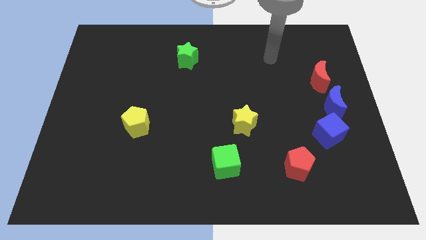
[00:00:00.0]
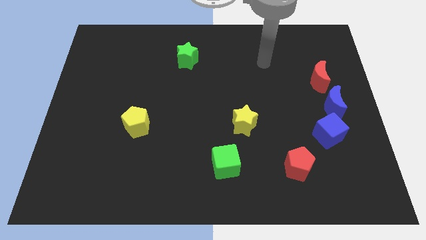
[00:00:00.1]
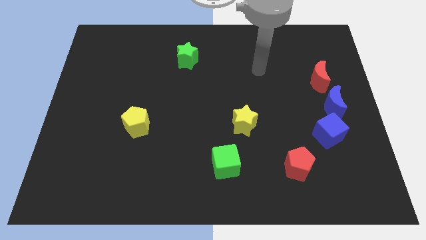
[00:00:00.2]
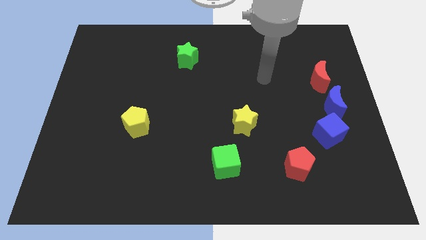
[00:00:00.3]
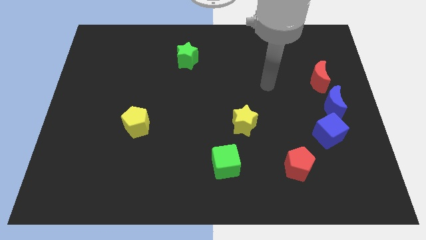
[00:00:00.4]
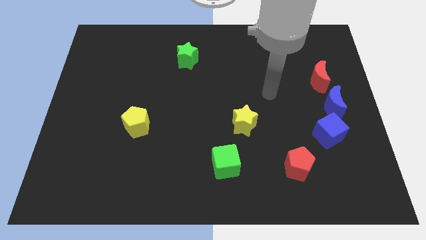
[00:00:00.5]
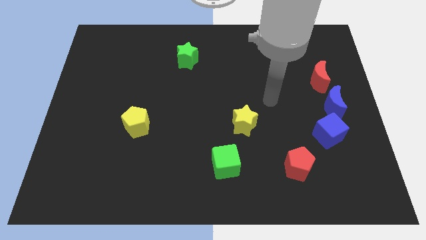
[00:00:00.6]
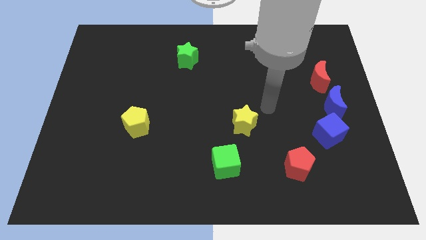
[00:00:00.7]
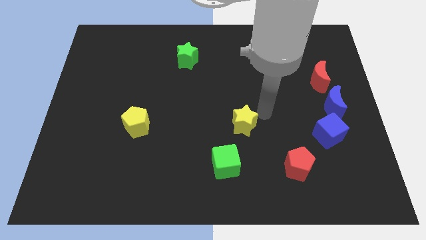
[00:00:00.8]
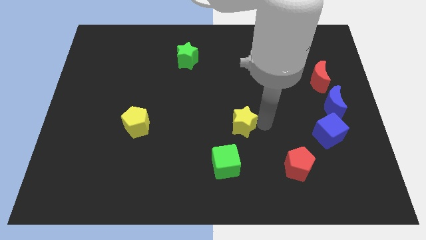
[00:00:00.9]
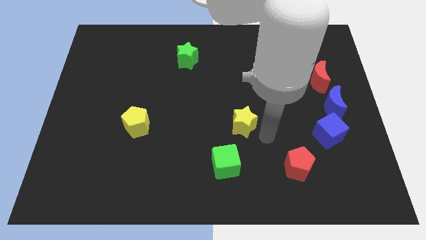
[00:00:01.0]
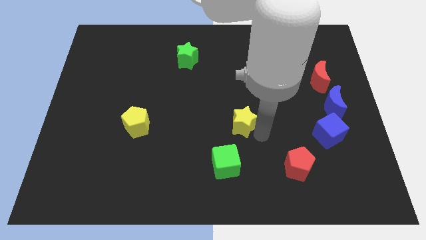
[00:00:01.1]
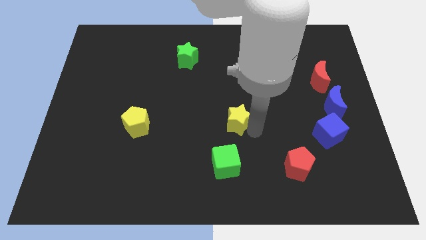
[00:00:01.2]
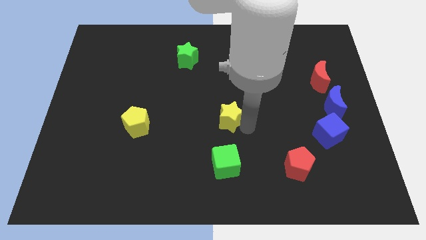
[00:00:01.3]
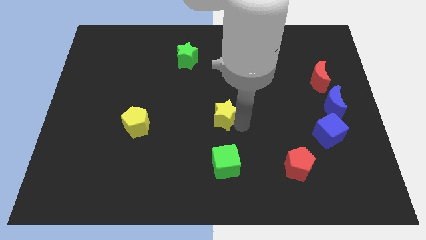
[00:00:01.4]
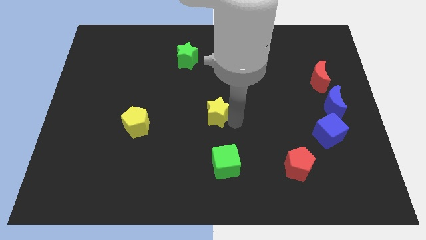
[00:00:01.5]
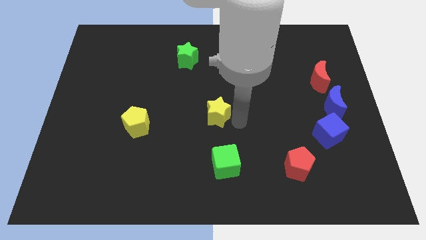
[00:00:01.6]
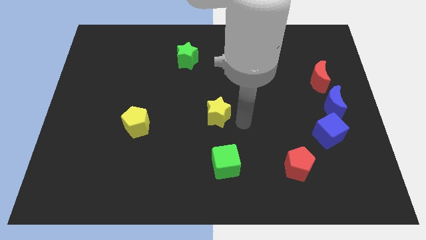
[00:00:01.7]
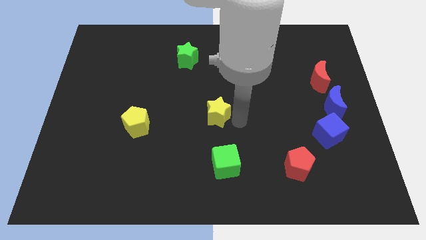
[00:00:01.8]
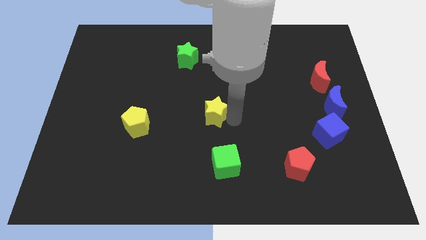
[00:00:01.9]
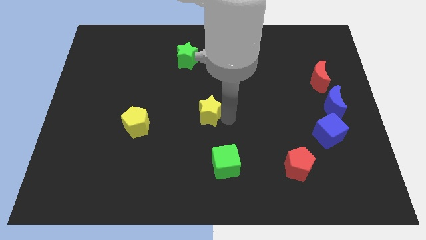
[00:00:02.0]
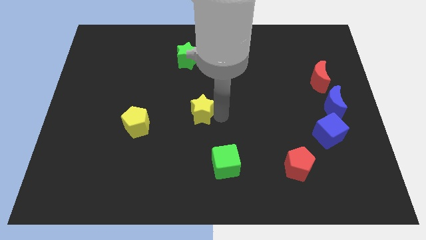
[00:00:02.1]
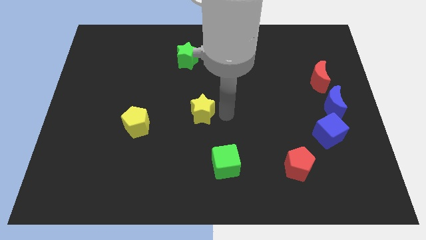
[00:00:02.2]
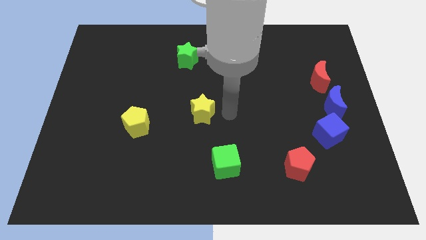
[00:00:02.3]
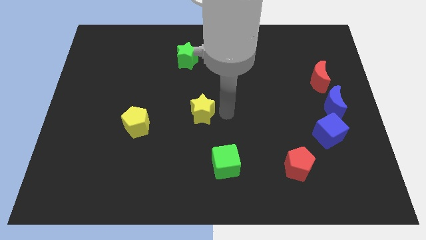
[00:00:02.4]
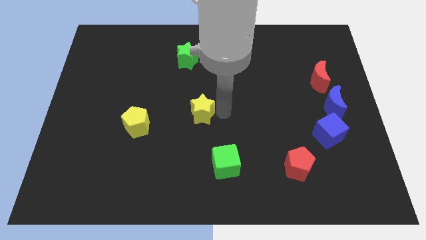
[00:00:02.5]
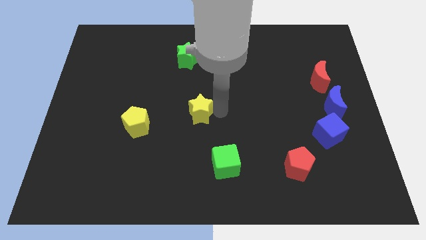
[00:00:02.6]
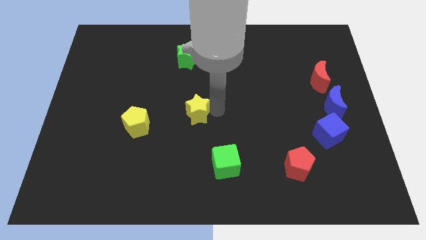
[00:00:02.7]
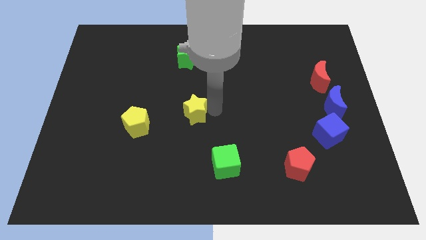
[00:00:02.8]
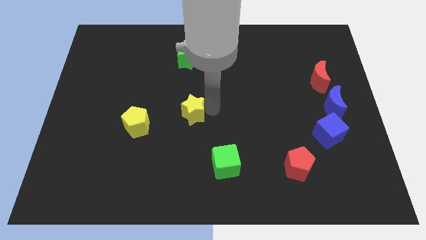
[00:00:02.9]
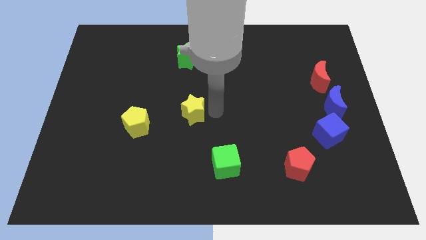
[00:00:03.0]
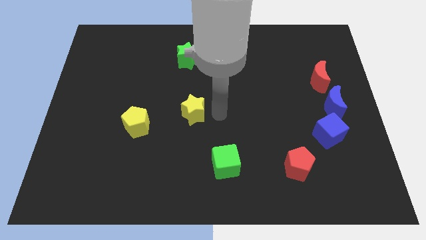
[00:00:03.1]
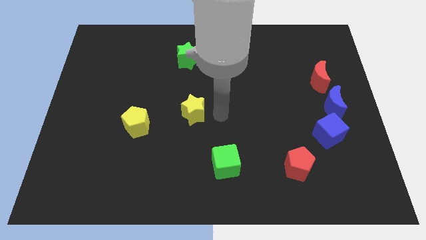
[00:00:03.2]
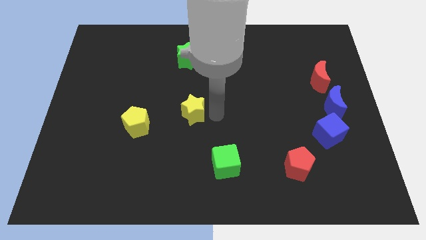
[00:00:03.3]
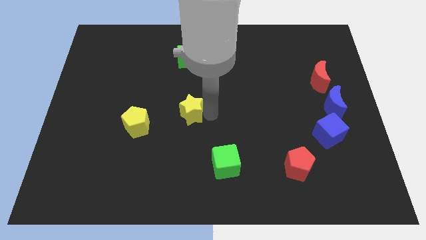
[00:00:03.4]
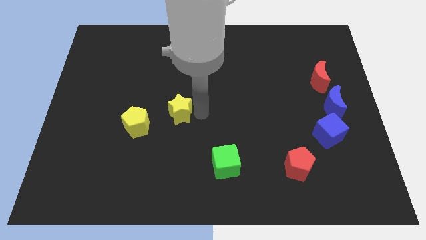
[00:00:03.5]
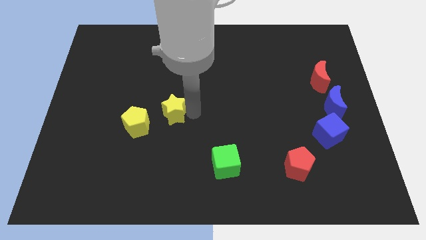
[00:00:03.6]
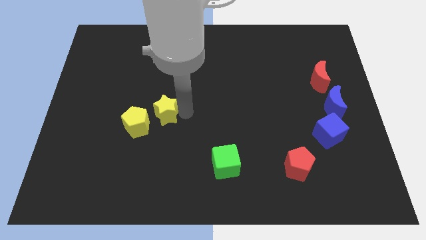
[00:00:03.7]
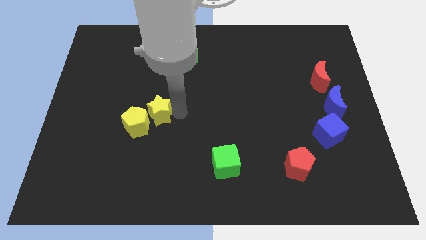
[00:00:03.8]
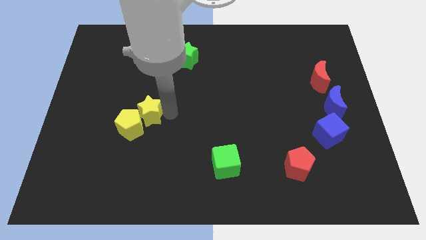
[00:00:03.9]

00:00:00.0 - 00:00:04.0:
push the yellow star to the left

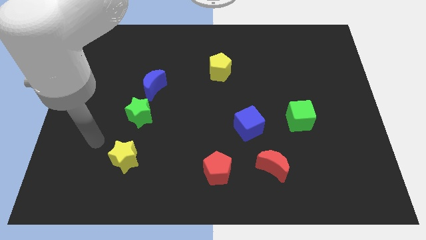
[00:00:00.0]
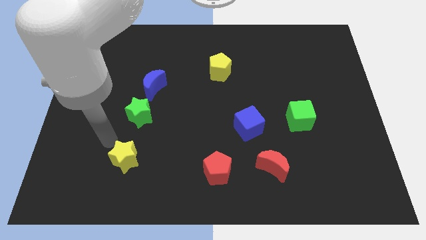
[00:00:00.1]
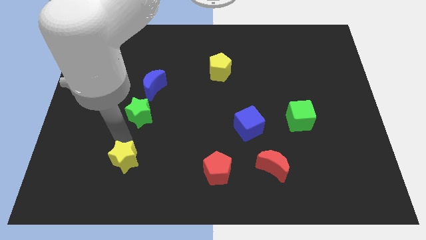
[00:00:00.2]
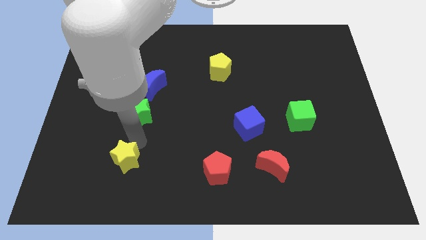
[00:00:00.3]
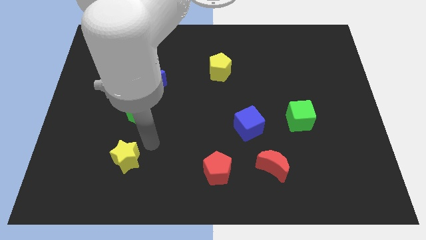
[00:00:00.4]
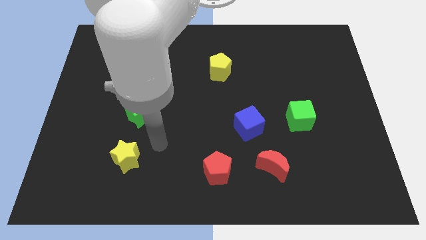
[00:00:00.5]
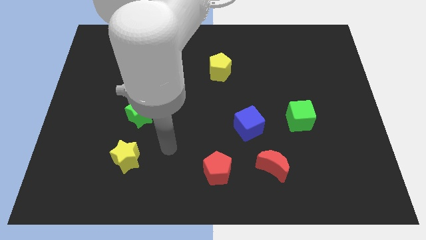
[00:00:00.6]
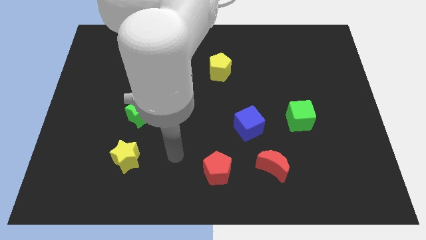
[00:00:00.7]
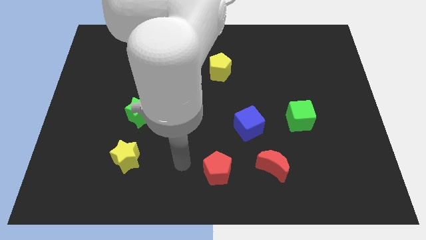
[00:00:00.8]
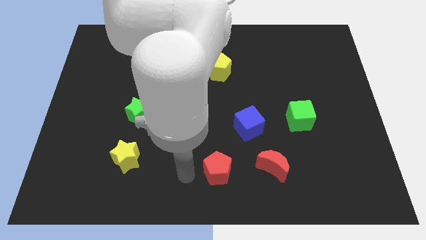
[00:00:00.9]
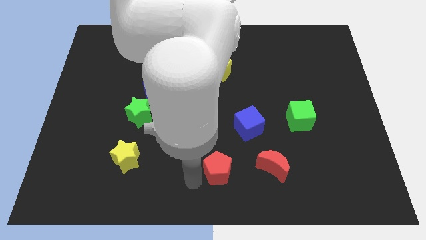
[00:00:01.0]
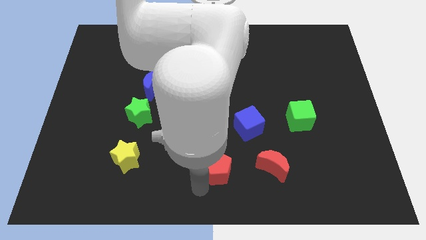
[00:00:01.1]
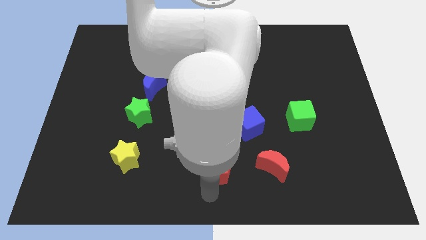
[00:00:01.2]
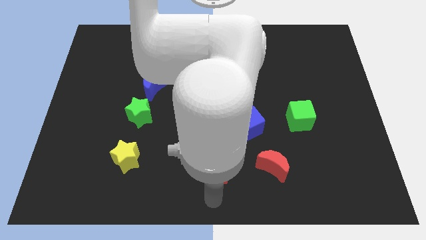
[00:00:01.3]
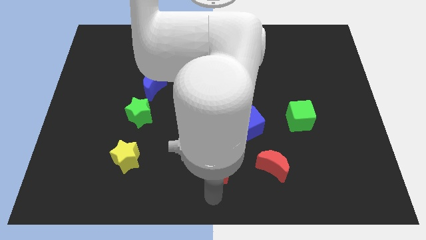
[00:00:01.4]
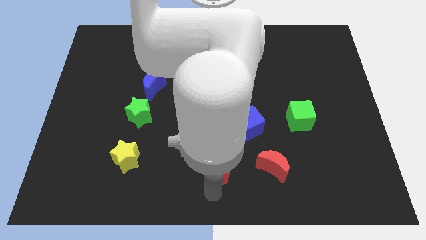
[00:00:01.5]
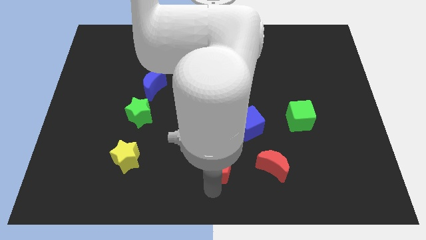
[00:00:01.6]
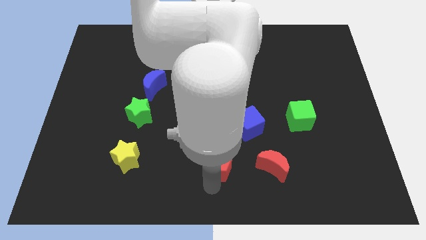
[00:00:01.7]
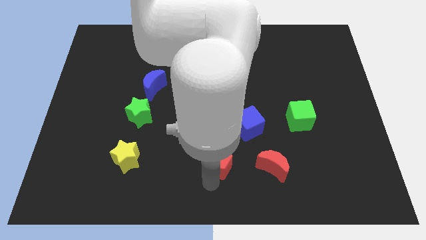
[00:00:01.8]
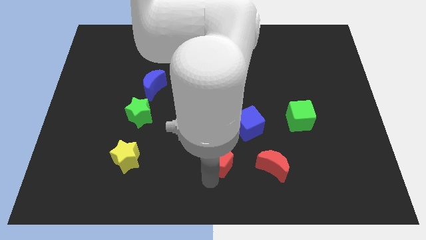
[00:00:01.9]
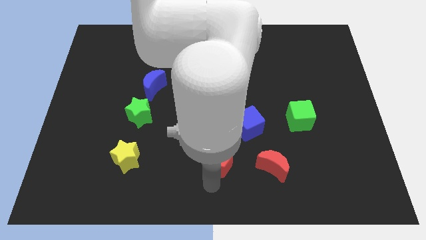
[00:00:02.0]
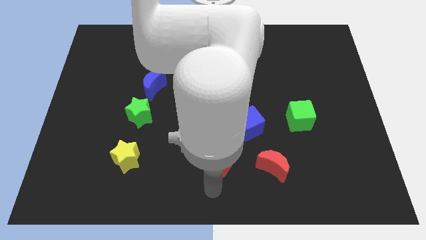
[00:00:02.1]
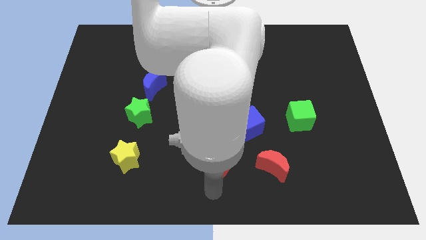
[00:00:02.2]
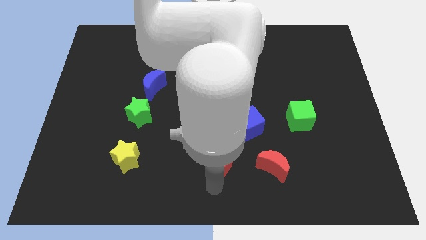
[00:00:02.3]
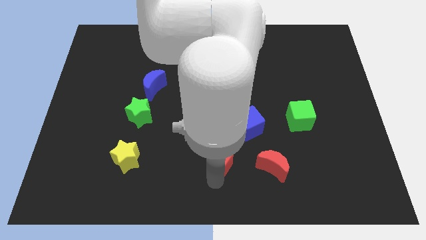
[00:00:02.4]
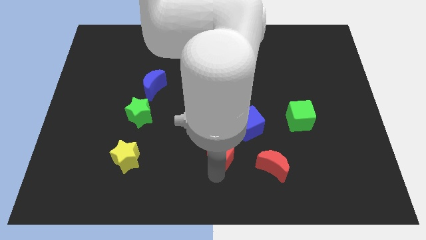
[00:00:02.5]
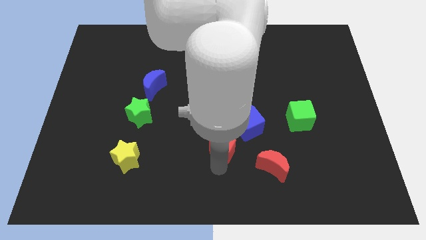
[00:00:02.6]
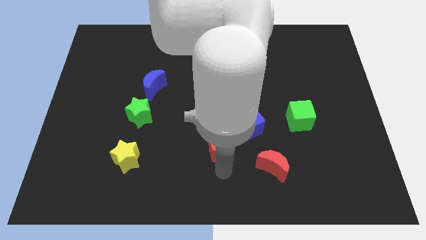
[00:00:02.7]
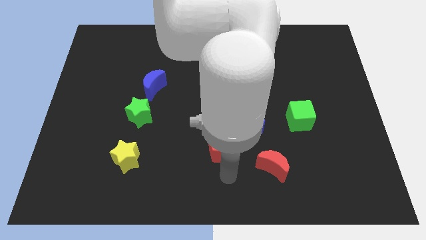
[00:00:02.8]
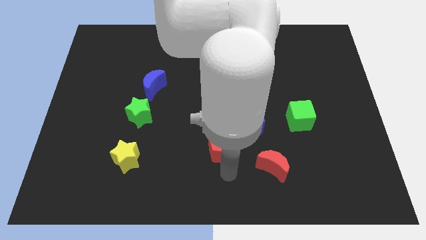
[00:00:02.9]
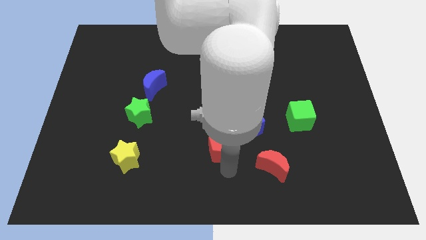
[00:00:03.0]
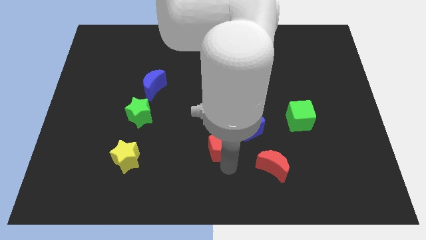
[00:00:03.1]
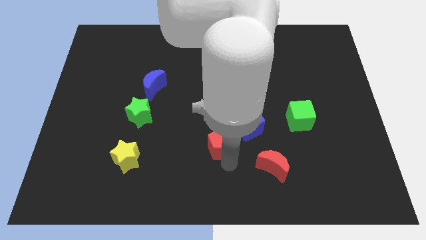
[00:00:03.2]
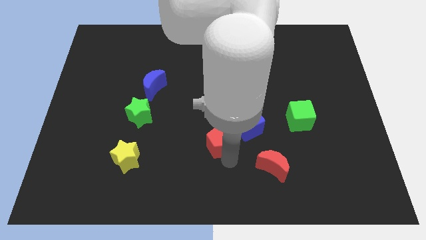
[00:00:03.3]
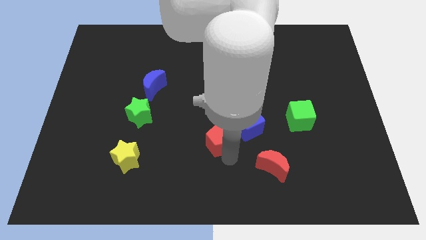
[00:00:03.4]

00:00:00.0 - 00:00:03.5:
slide the red pentagon slightly upwards

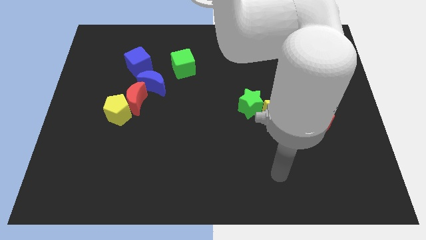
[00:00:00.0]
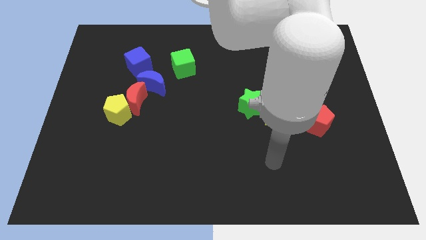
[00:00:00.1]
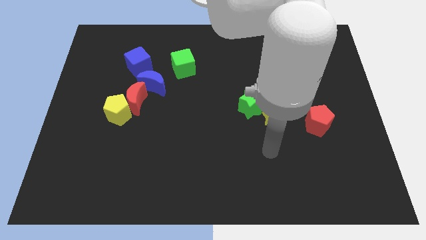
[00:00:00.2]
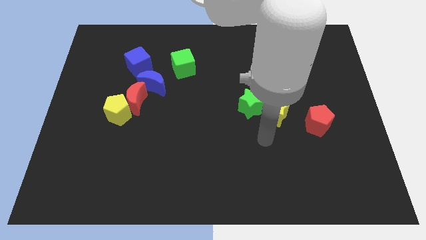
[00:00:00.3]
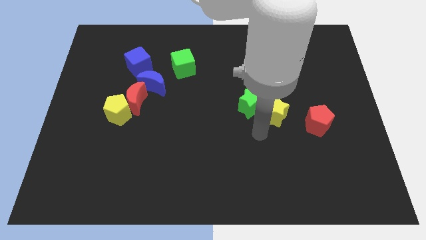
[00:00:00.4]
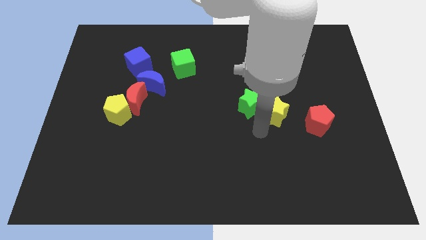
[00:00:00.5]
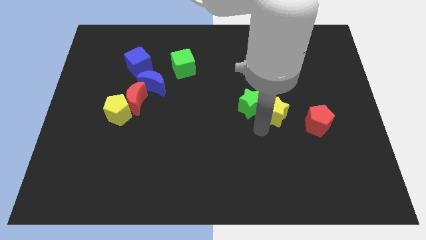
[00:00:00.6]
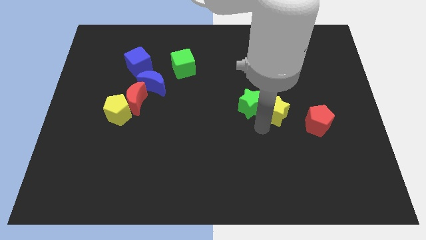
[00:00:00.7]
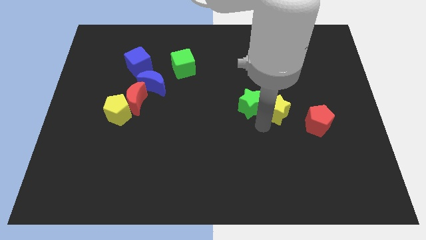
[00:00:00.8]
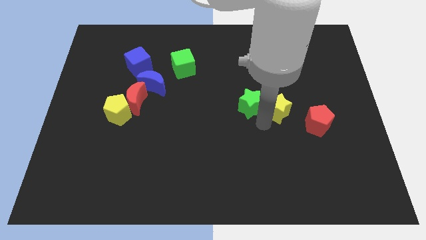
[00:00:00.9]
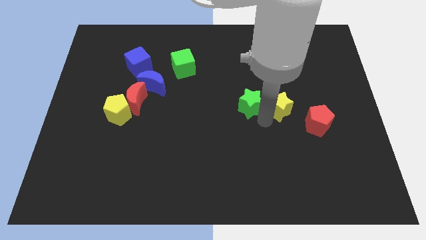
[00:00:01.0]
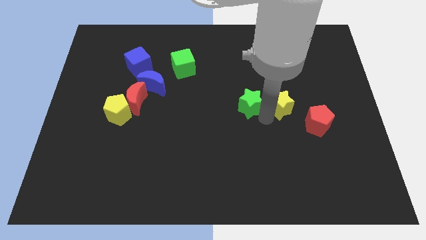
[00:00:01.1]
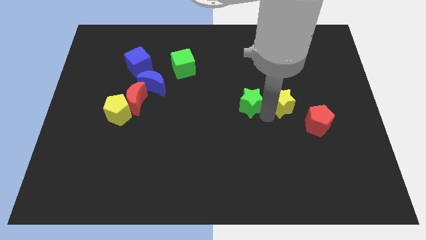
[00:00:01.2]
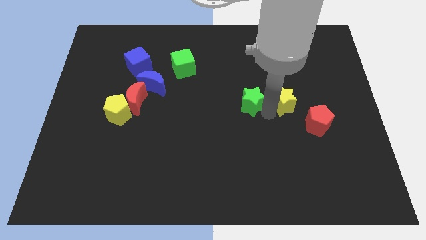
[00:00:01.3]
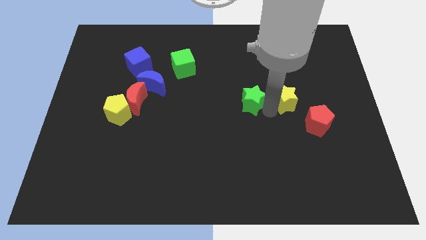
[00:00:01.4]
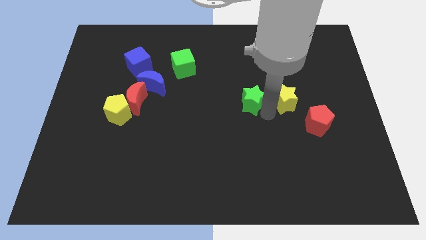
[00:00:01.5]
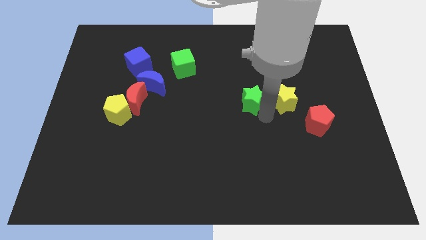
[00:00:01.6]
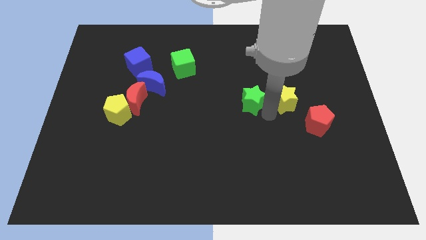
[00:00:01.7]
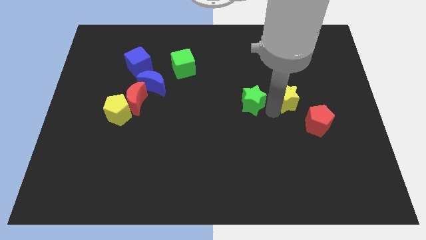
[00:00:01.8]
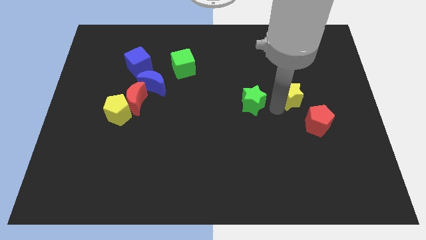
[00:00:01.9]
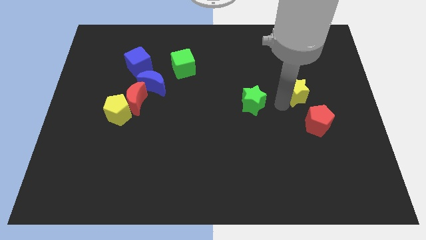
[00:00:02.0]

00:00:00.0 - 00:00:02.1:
push the yellow star a bit diagonally up and to the right
